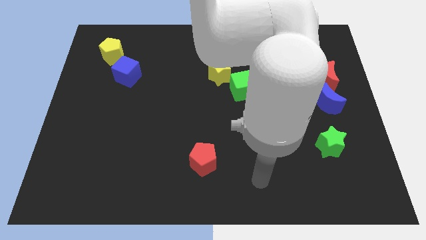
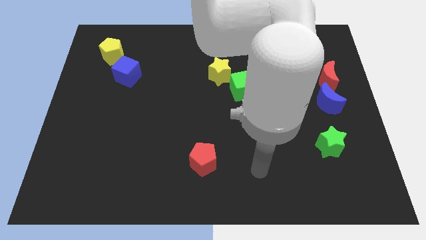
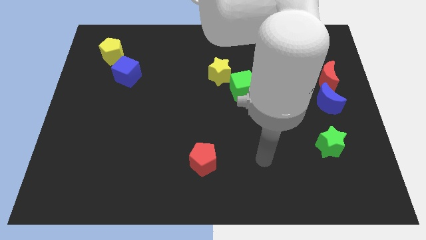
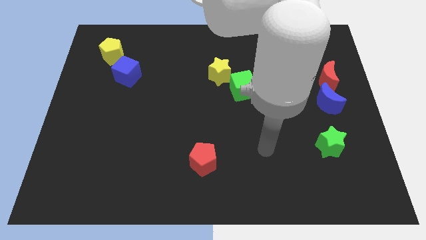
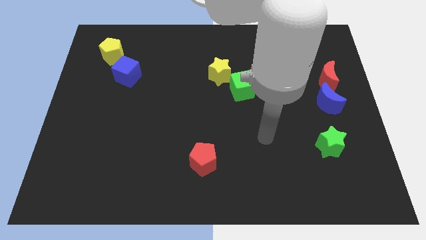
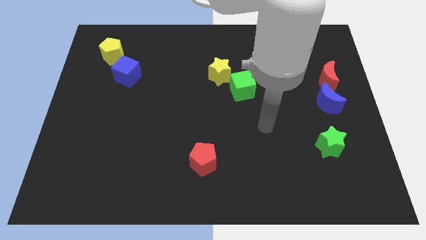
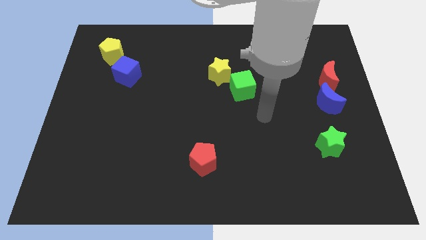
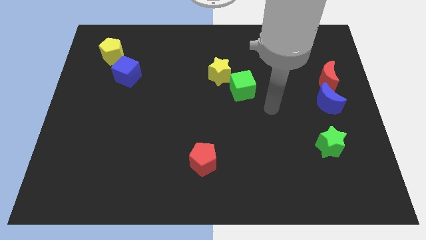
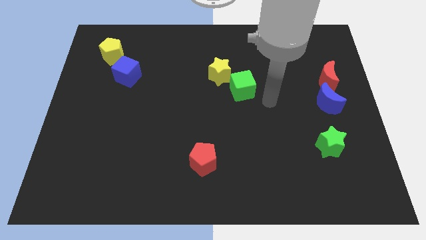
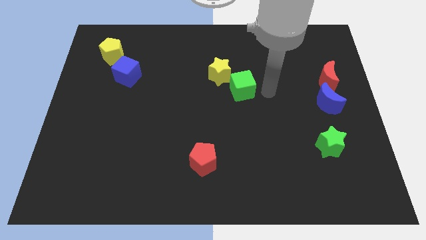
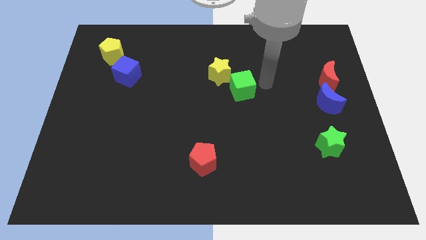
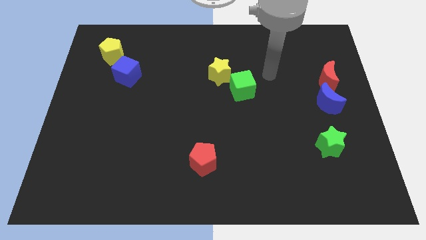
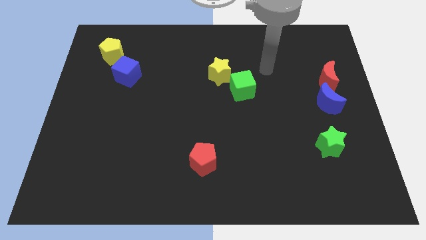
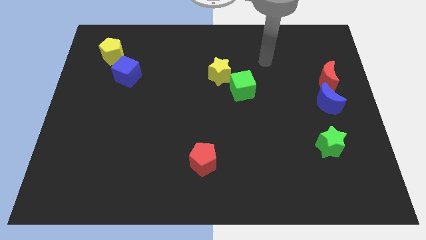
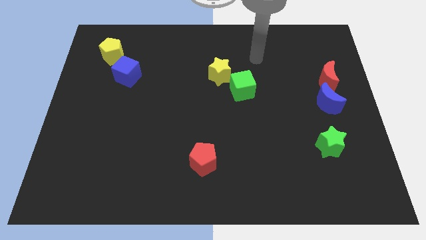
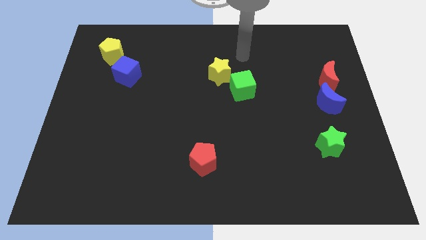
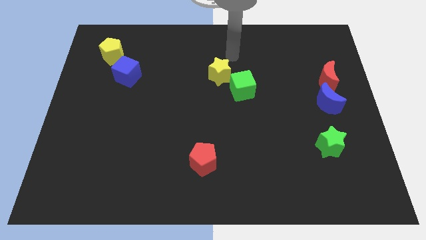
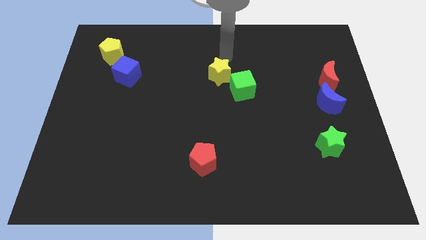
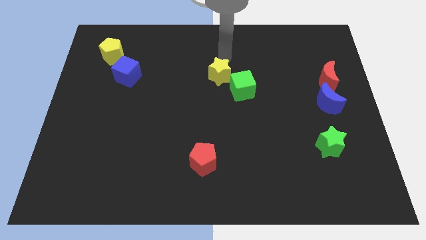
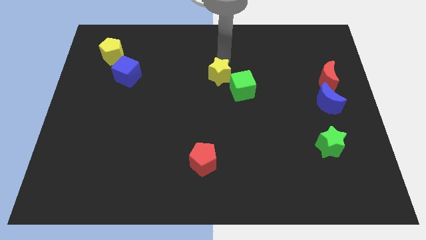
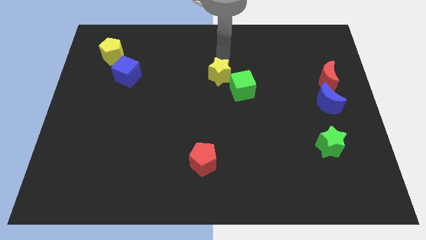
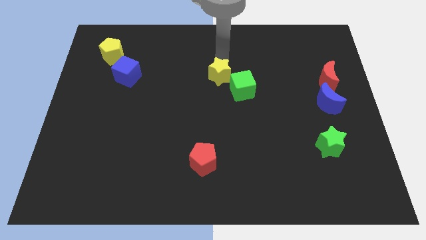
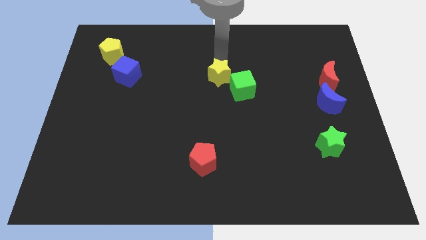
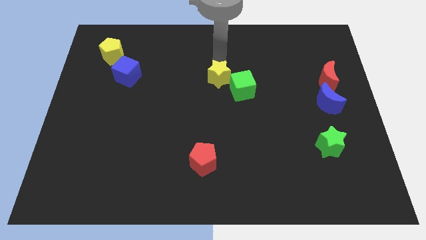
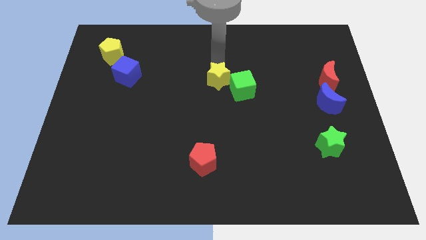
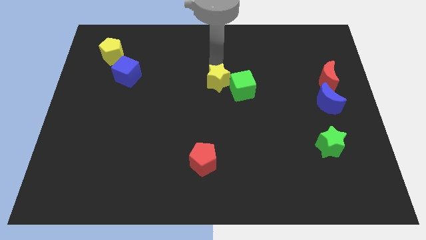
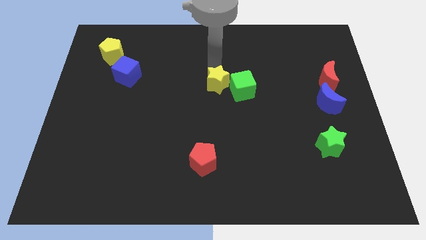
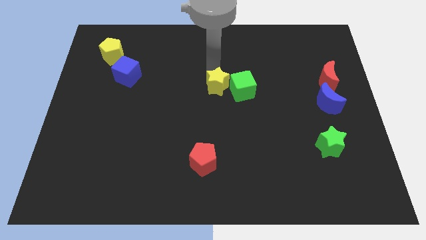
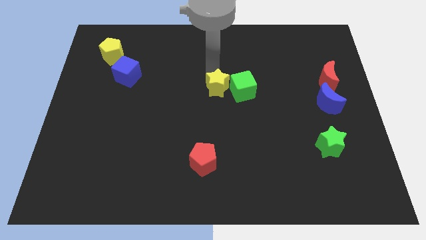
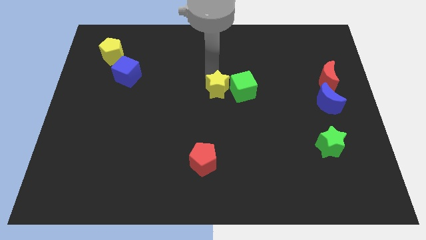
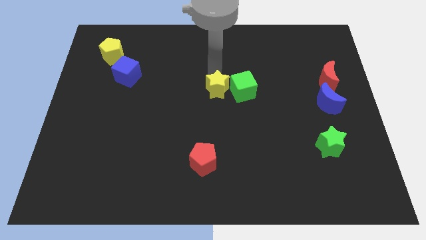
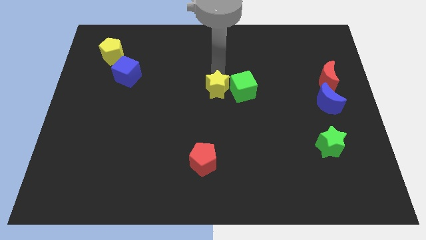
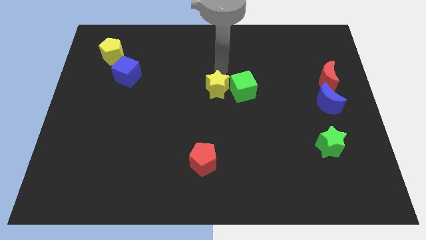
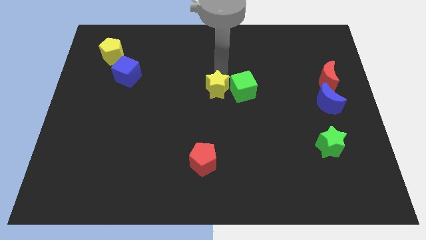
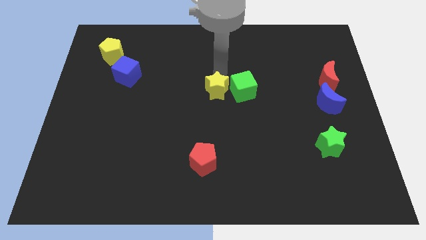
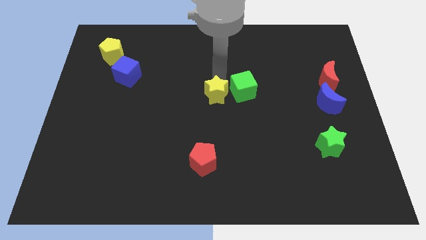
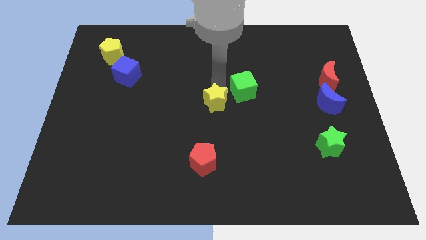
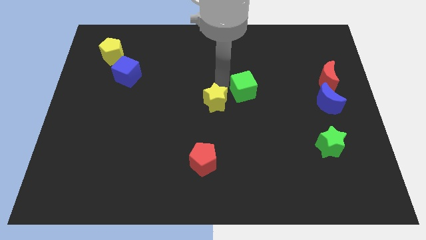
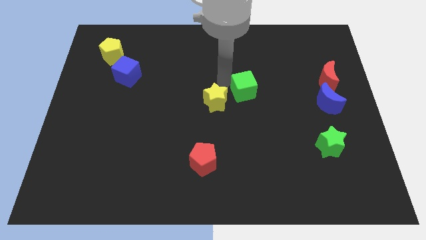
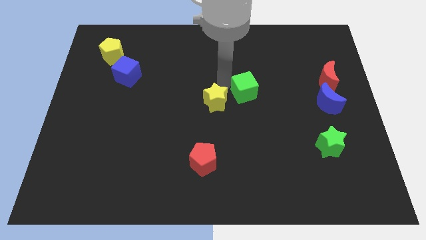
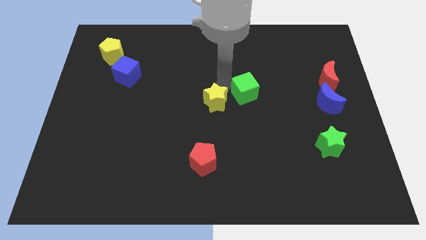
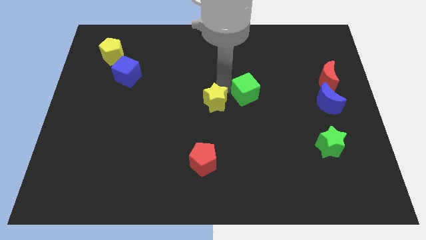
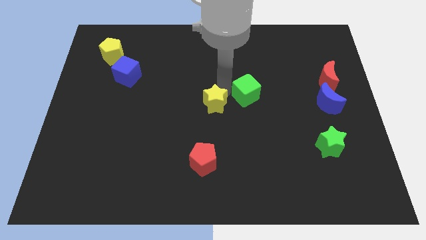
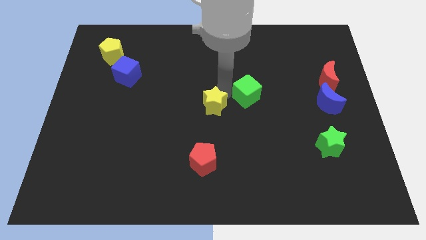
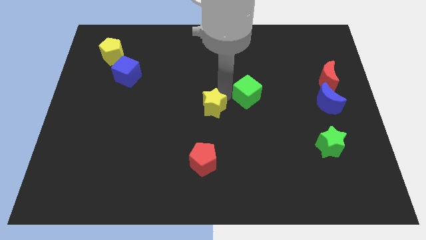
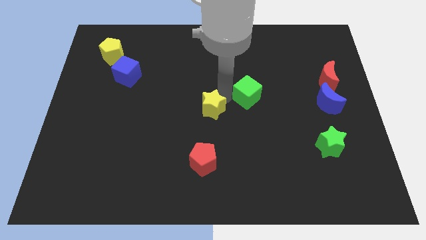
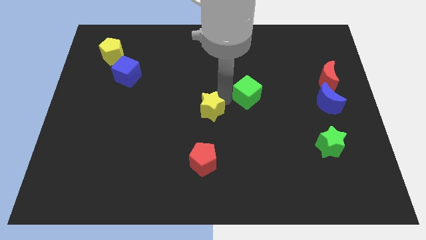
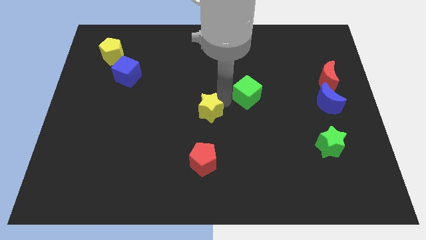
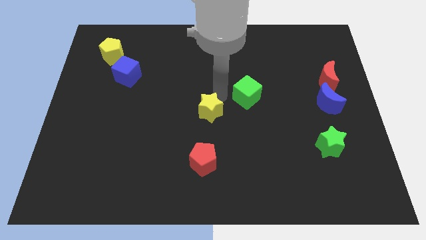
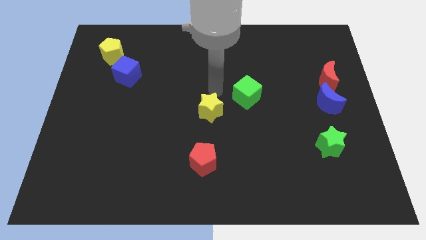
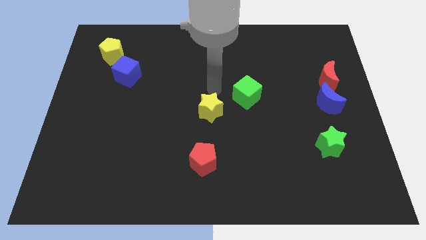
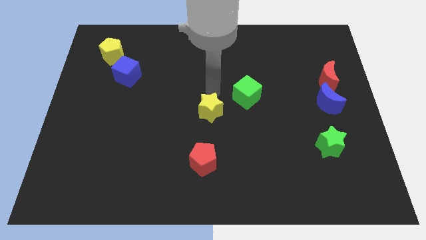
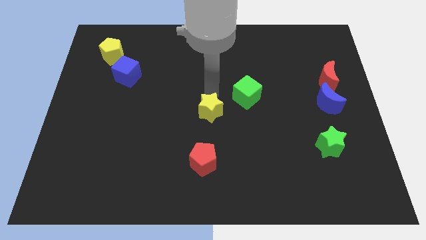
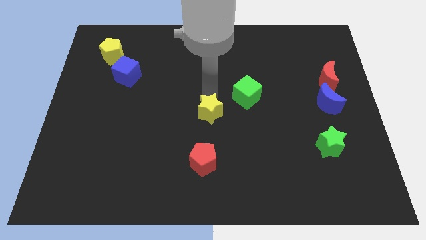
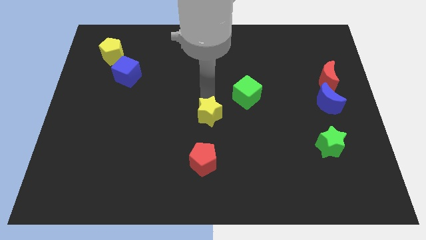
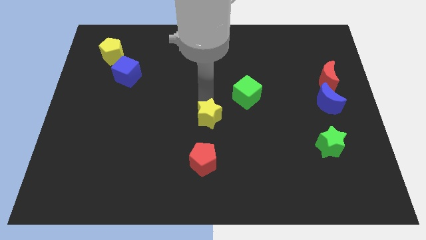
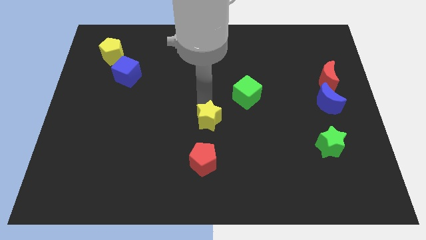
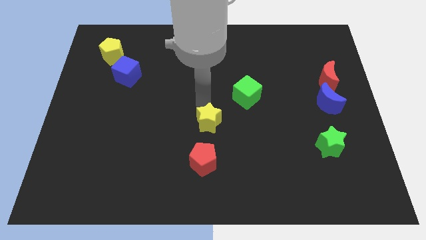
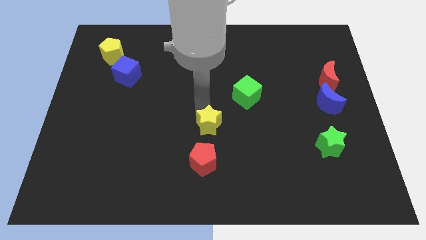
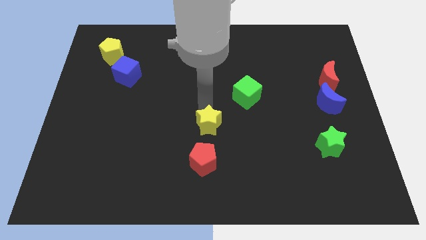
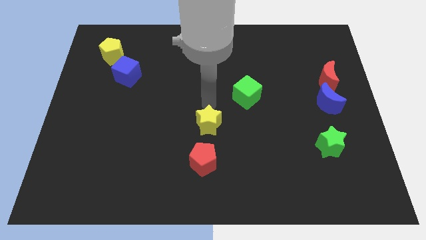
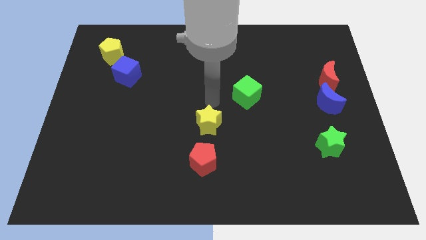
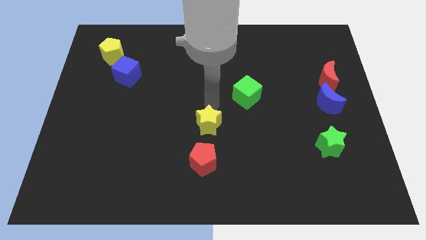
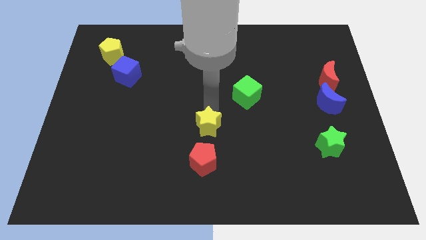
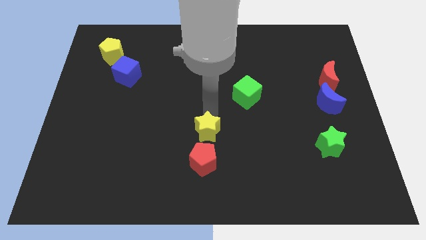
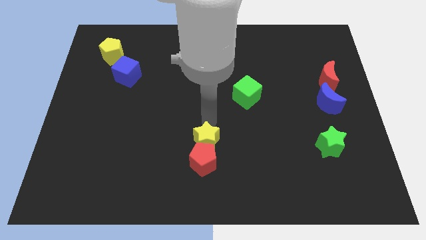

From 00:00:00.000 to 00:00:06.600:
put the yellow star next to the red pentagon

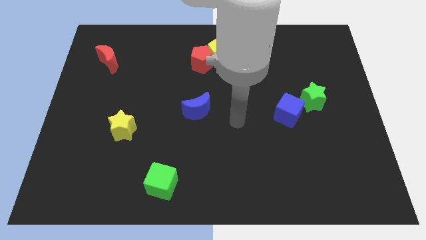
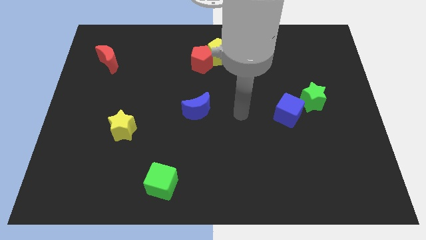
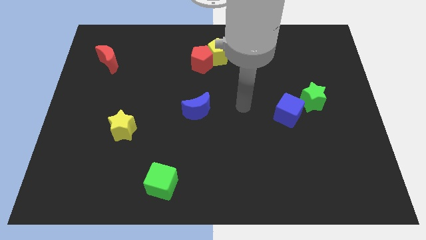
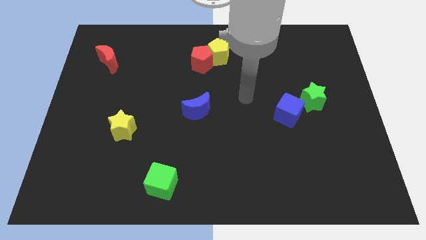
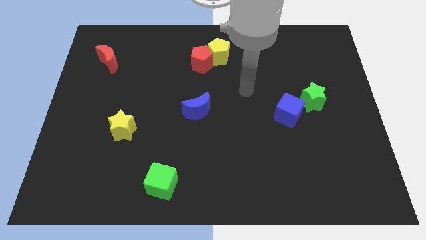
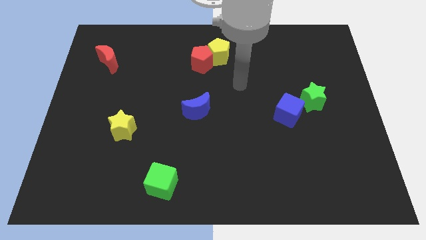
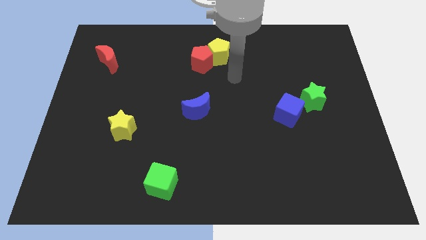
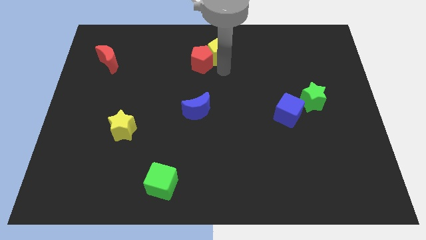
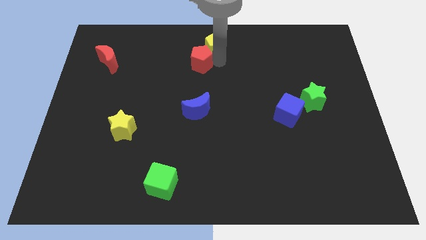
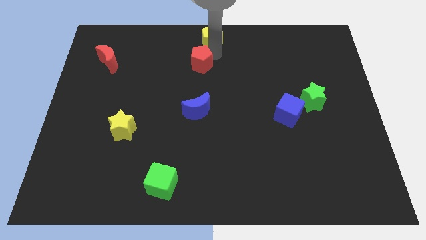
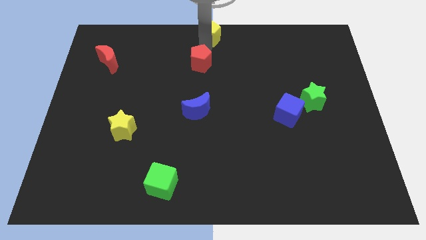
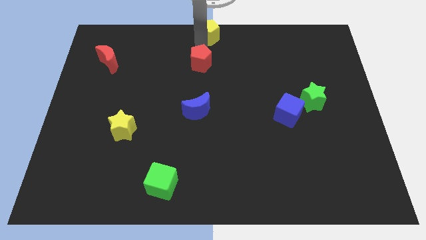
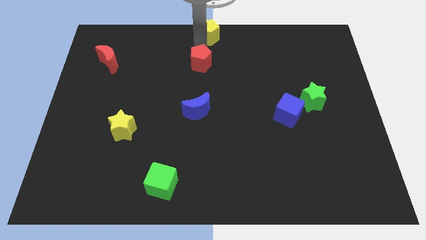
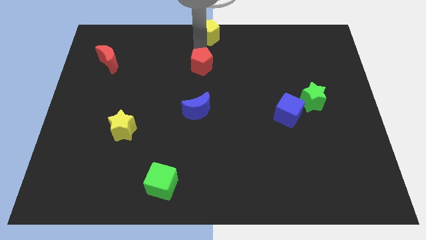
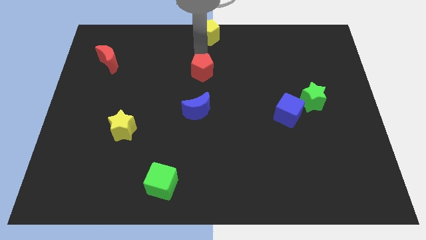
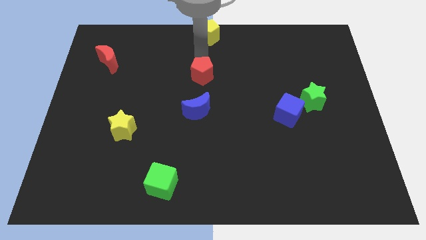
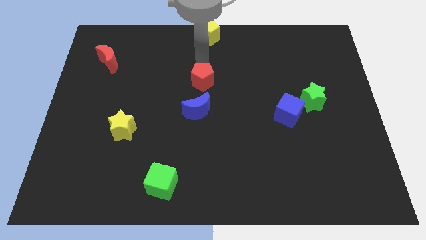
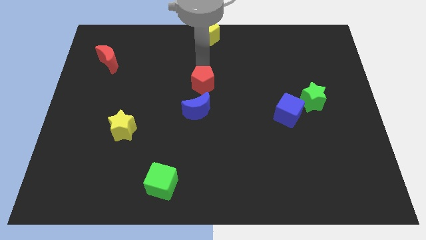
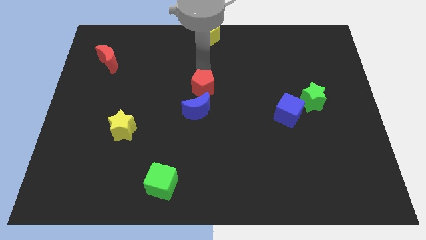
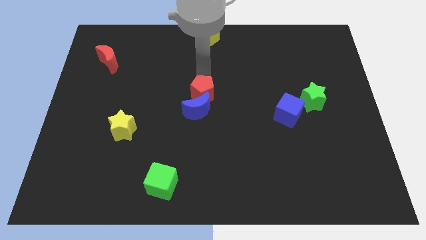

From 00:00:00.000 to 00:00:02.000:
put the red pentagon close to the blue moon

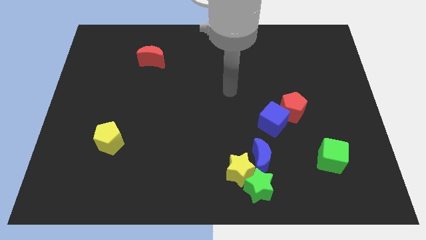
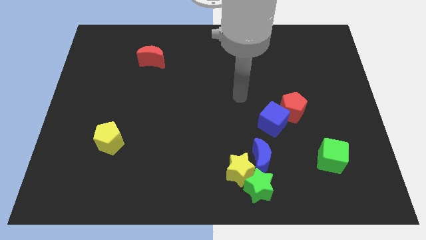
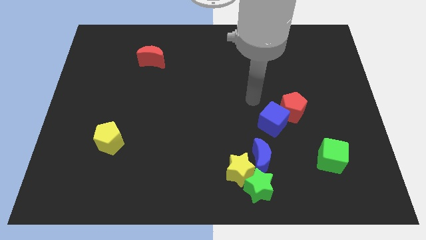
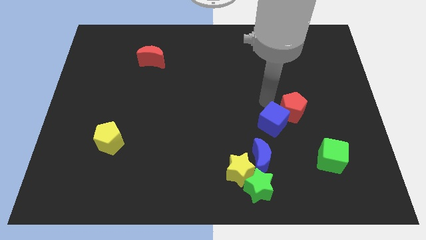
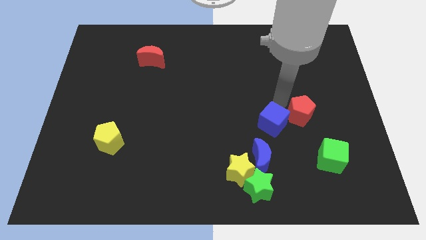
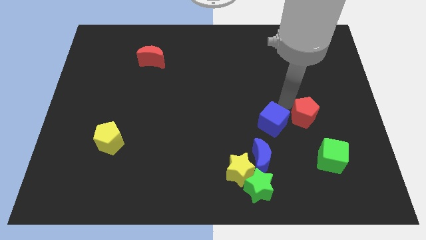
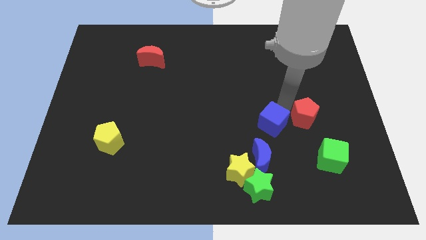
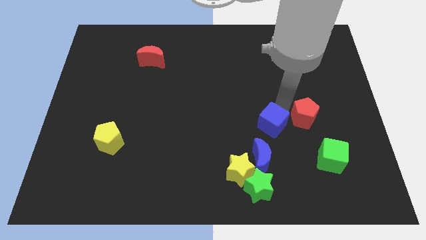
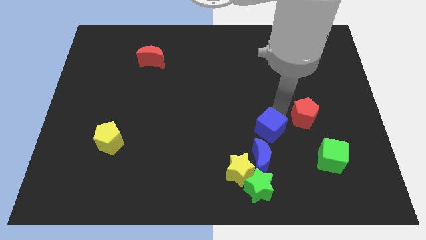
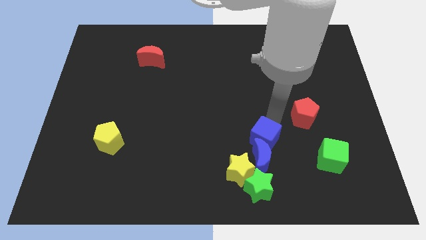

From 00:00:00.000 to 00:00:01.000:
move the blue cube close to the blue moon
